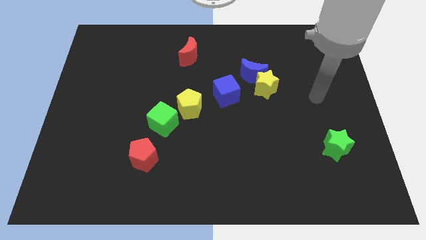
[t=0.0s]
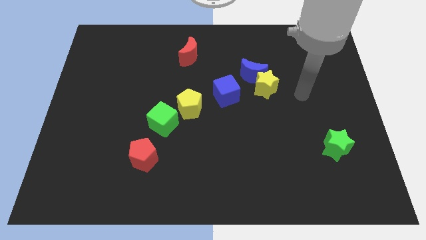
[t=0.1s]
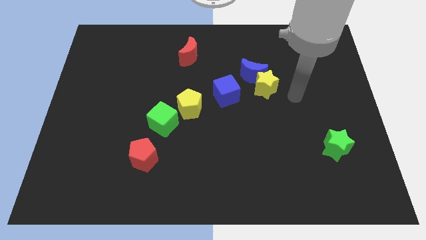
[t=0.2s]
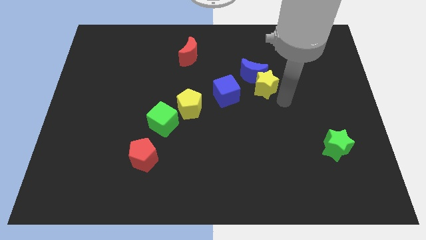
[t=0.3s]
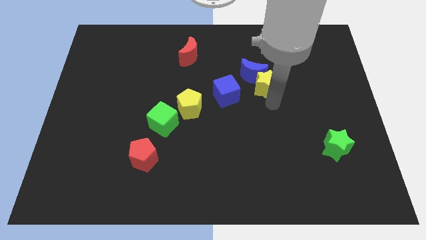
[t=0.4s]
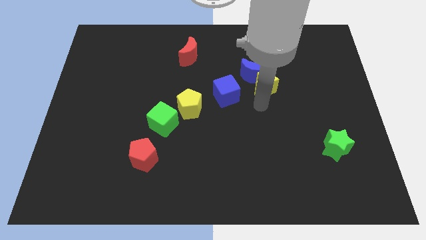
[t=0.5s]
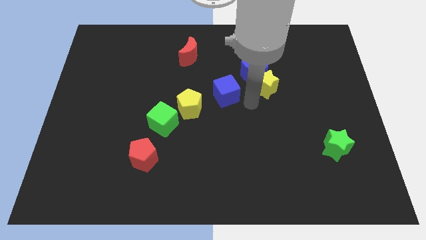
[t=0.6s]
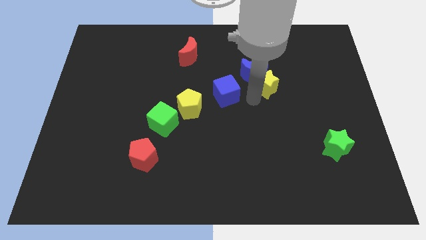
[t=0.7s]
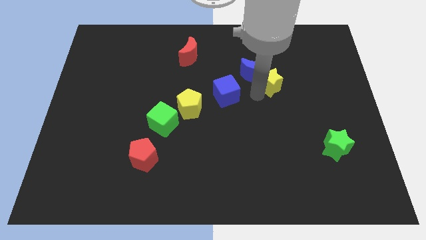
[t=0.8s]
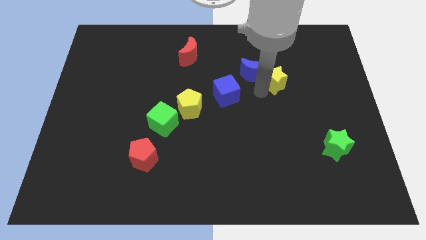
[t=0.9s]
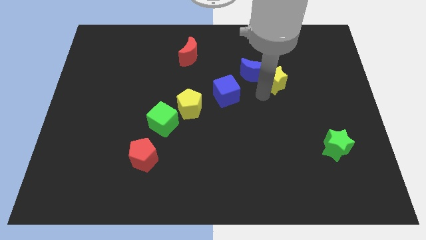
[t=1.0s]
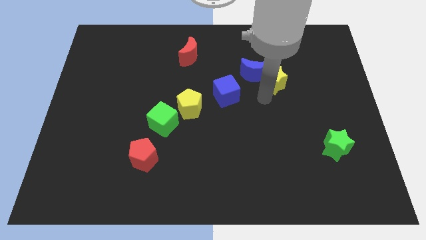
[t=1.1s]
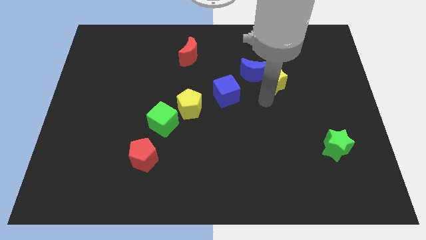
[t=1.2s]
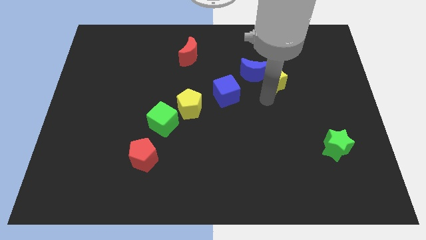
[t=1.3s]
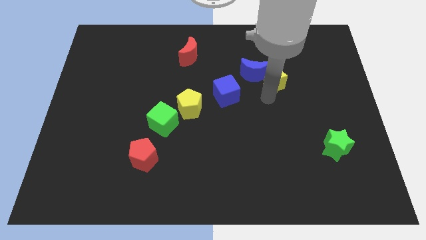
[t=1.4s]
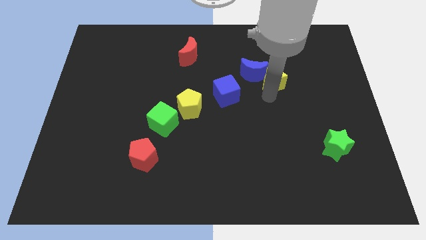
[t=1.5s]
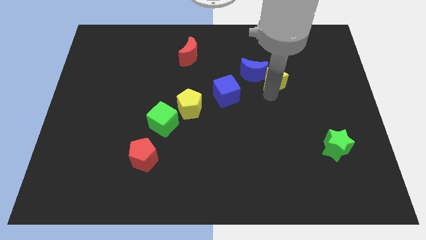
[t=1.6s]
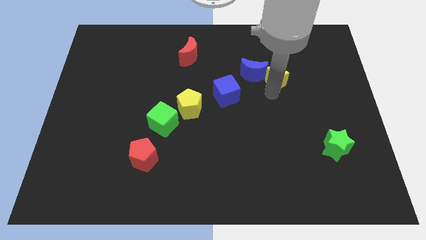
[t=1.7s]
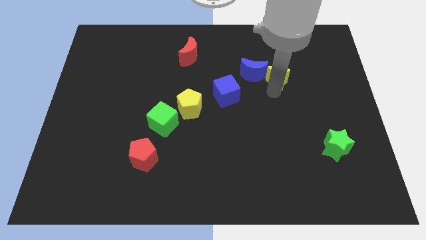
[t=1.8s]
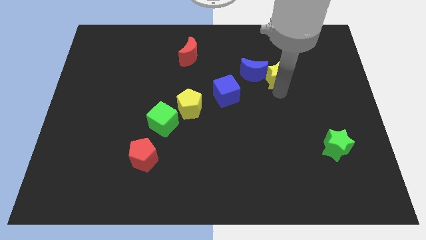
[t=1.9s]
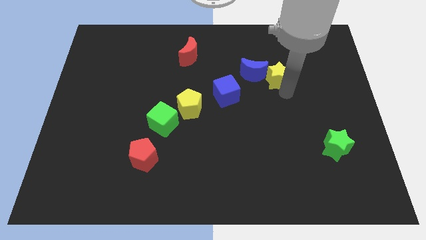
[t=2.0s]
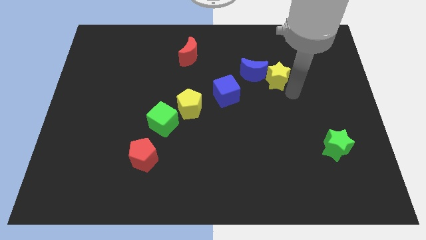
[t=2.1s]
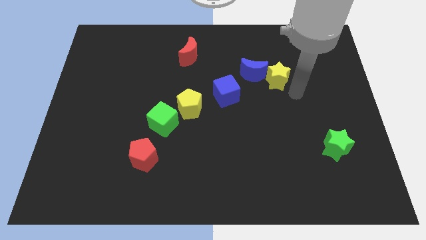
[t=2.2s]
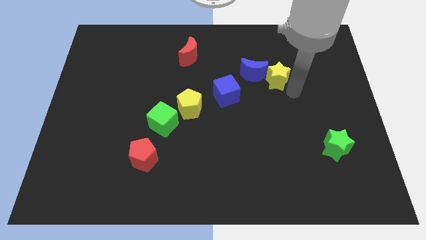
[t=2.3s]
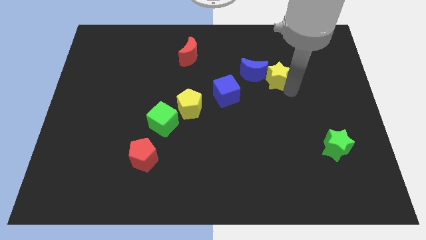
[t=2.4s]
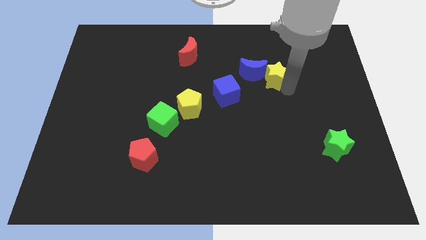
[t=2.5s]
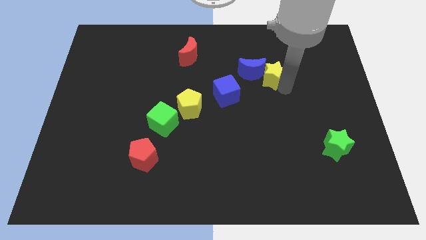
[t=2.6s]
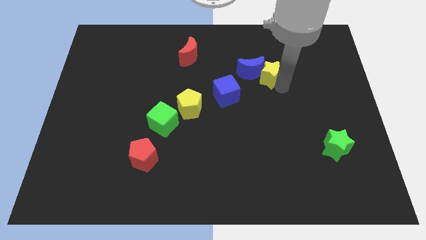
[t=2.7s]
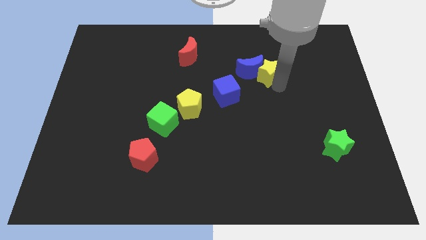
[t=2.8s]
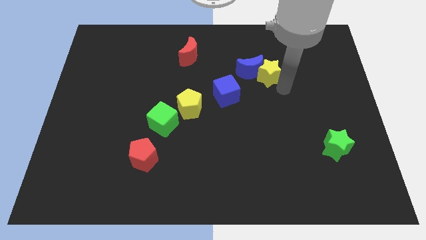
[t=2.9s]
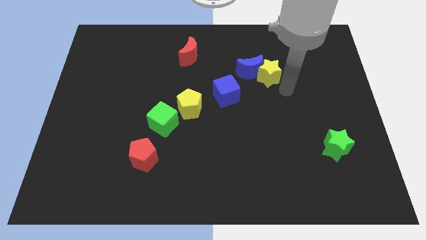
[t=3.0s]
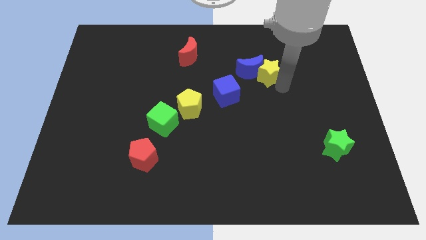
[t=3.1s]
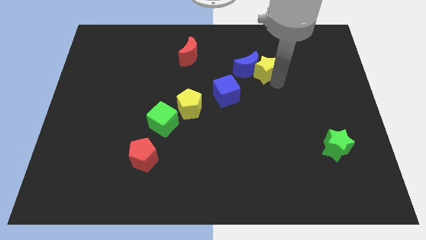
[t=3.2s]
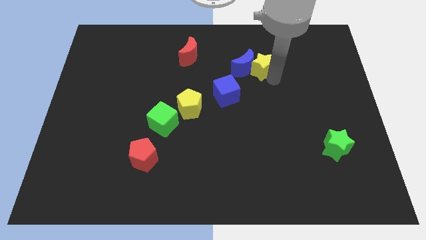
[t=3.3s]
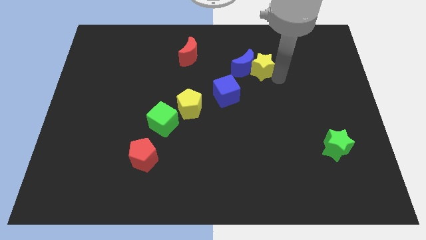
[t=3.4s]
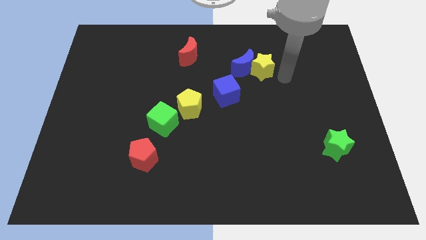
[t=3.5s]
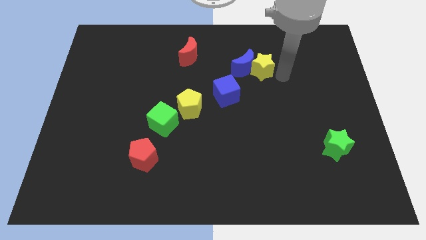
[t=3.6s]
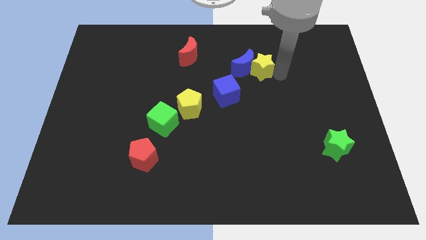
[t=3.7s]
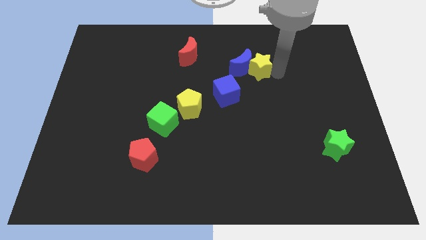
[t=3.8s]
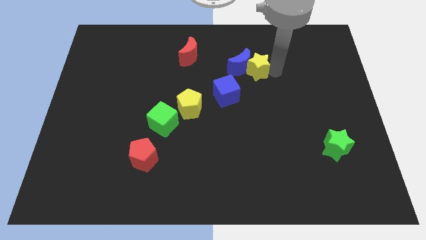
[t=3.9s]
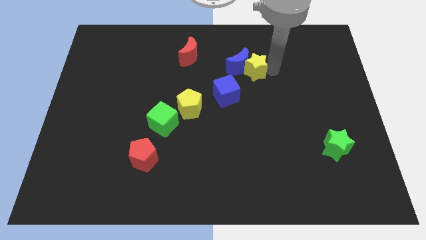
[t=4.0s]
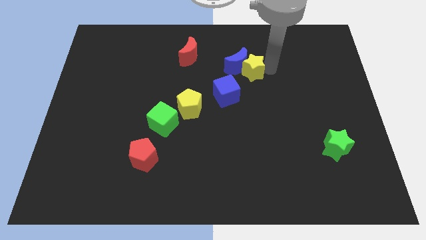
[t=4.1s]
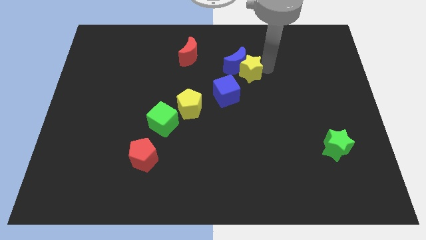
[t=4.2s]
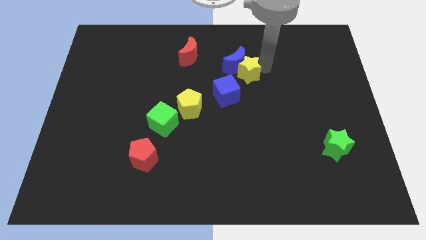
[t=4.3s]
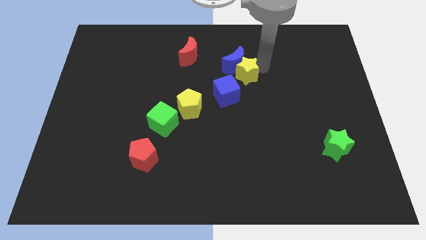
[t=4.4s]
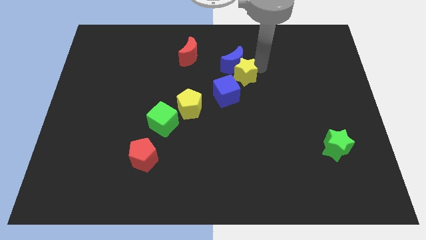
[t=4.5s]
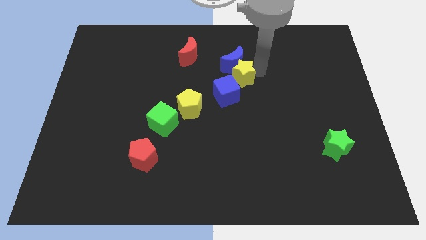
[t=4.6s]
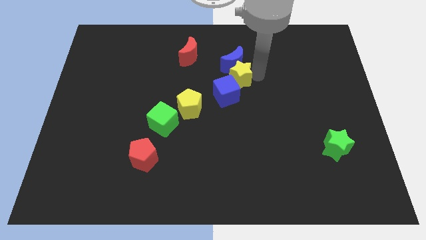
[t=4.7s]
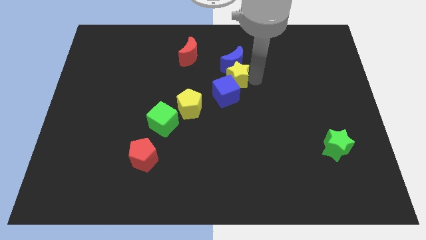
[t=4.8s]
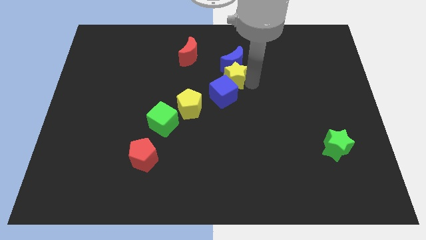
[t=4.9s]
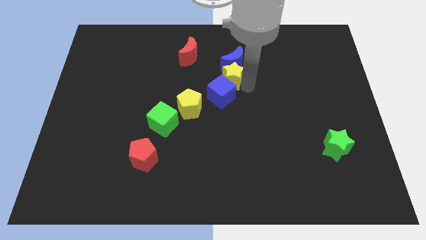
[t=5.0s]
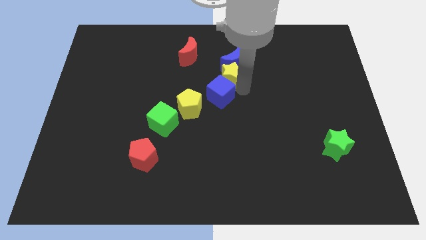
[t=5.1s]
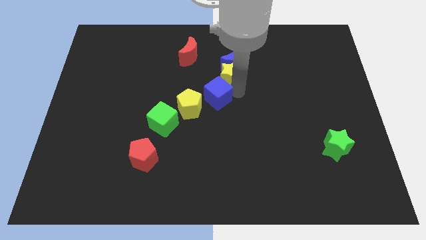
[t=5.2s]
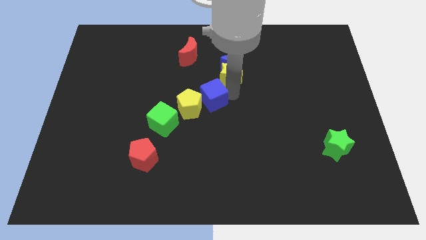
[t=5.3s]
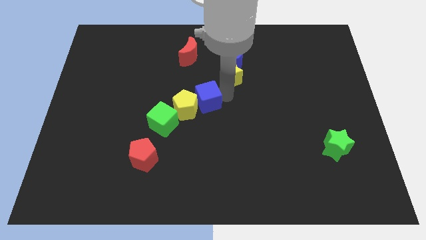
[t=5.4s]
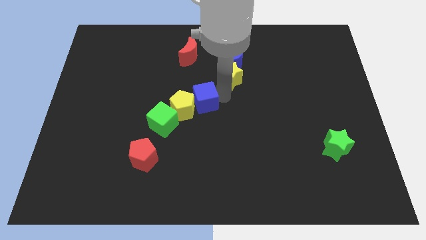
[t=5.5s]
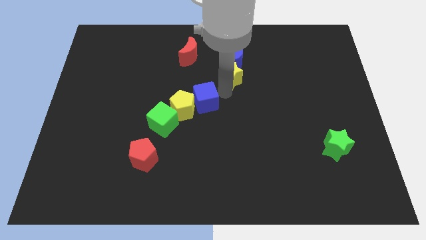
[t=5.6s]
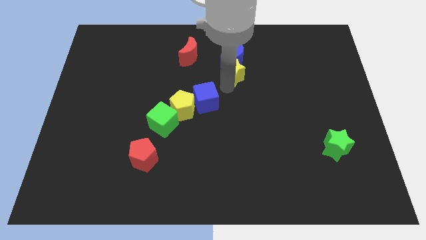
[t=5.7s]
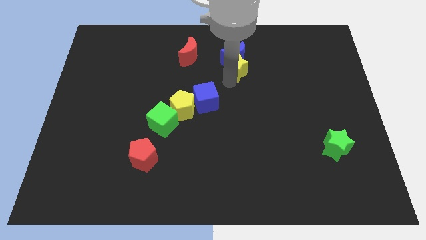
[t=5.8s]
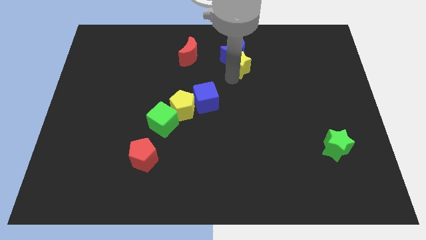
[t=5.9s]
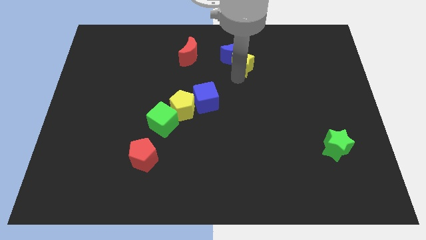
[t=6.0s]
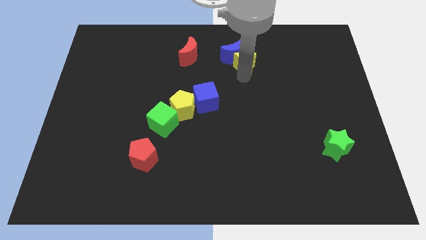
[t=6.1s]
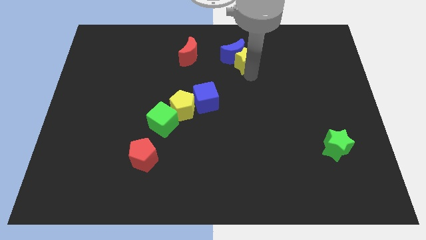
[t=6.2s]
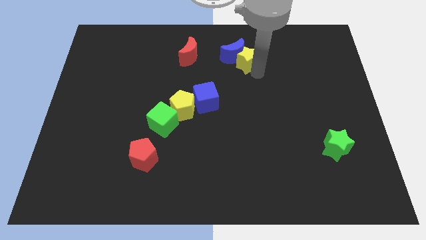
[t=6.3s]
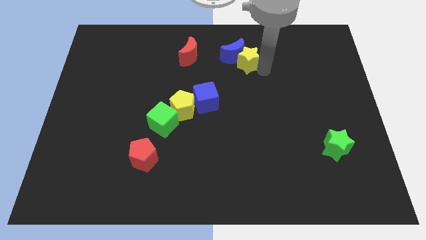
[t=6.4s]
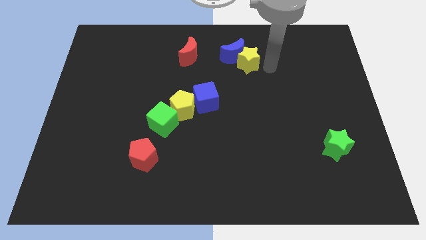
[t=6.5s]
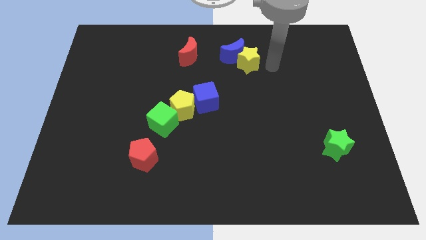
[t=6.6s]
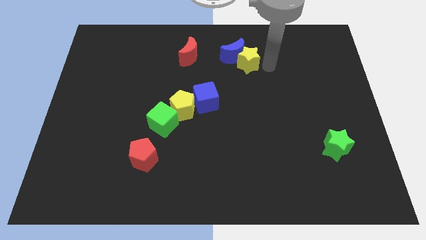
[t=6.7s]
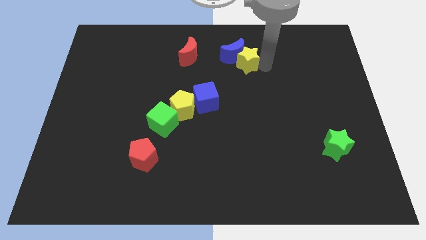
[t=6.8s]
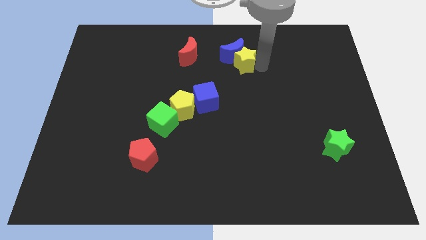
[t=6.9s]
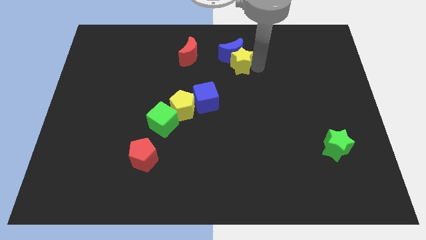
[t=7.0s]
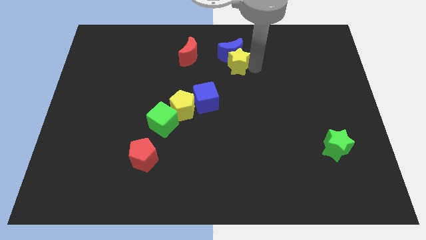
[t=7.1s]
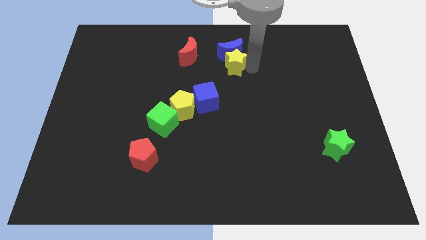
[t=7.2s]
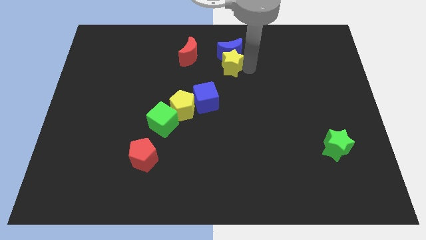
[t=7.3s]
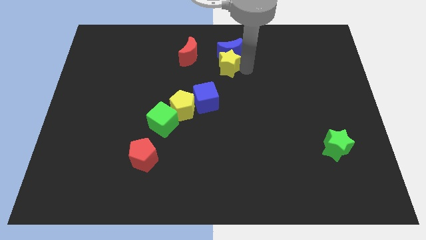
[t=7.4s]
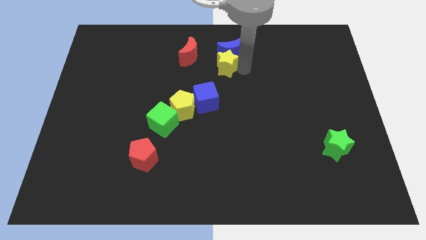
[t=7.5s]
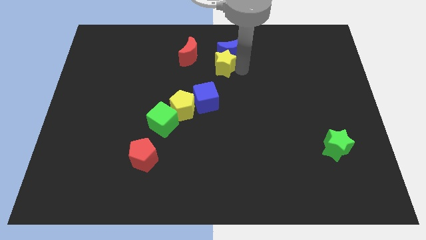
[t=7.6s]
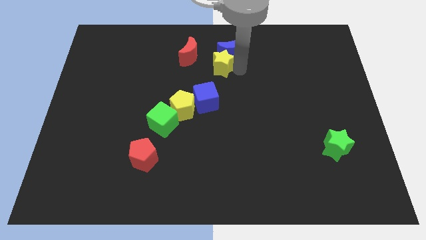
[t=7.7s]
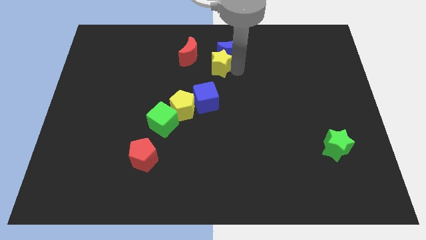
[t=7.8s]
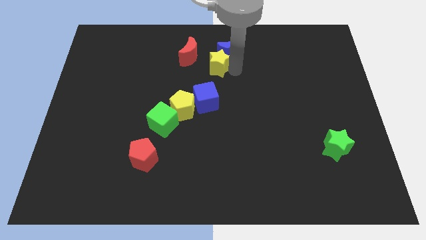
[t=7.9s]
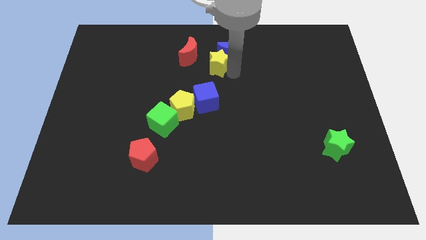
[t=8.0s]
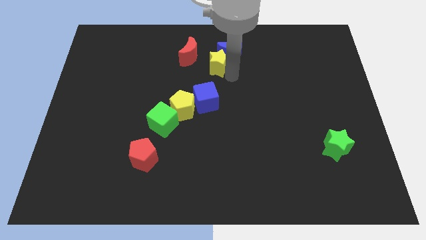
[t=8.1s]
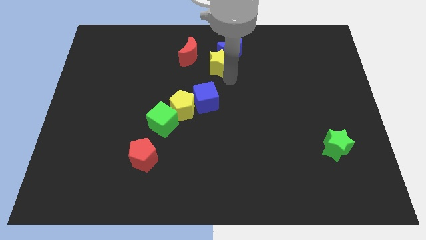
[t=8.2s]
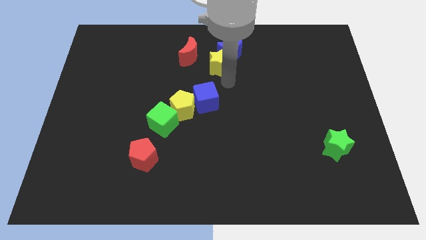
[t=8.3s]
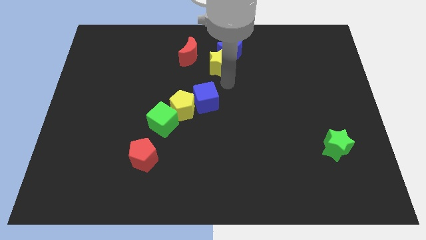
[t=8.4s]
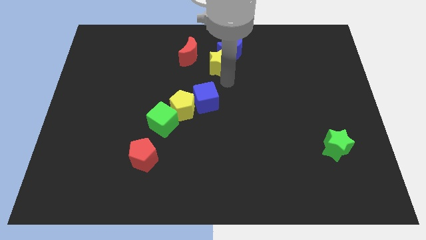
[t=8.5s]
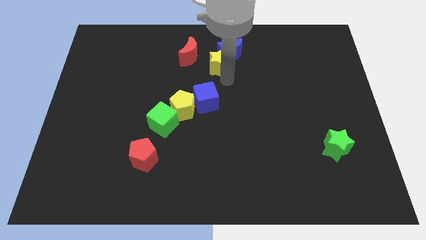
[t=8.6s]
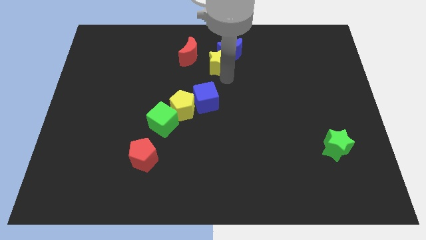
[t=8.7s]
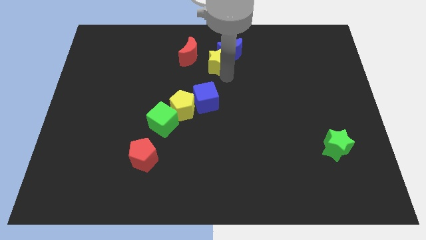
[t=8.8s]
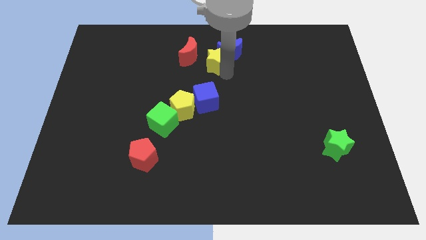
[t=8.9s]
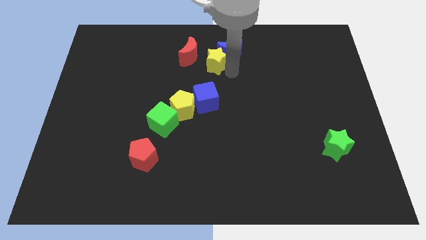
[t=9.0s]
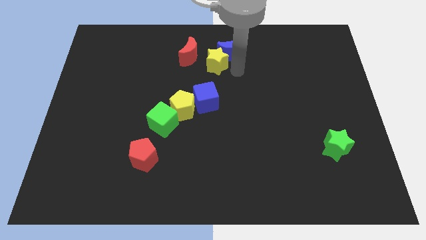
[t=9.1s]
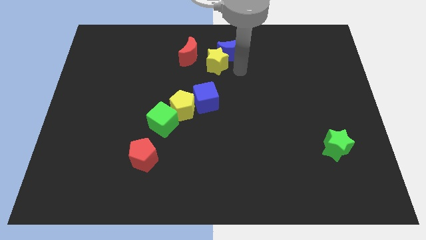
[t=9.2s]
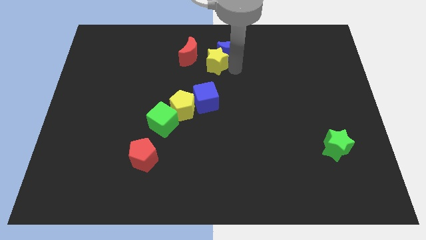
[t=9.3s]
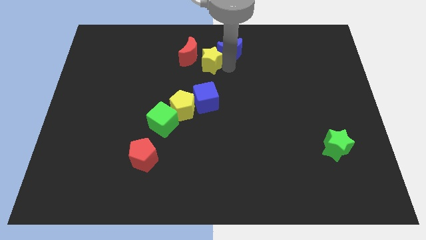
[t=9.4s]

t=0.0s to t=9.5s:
put the yellow star next to the red moon
